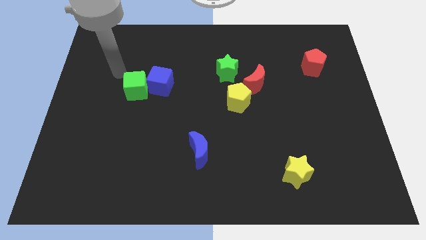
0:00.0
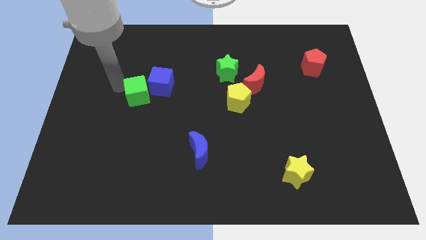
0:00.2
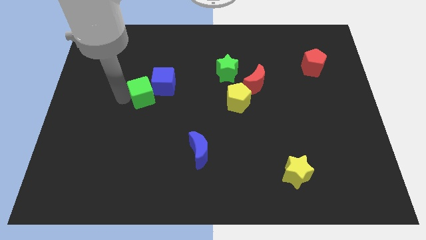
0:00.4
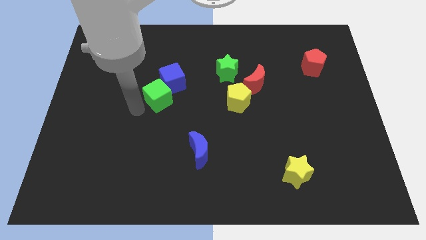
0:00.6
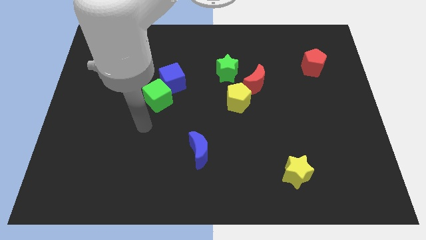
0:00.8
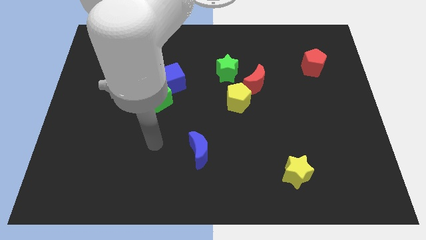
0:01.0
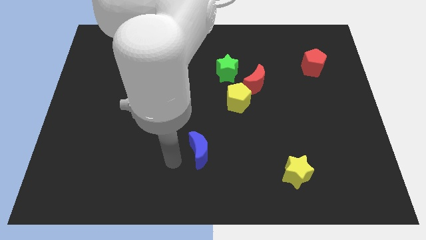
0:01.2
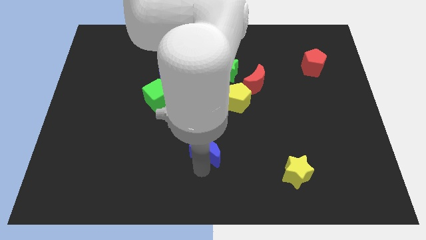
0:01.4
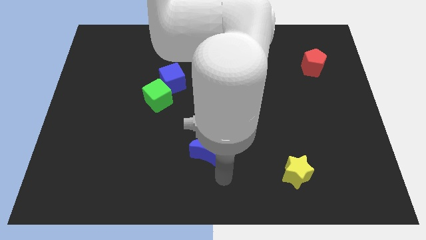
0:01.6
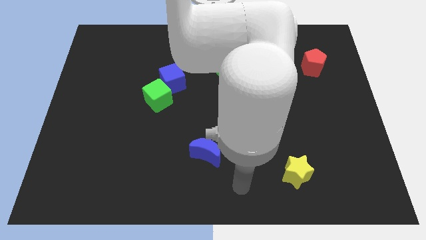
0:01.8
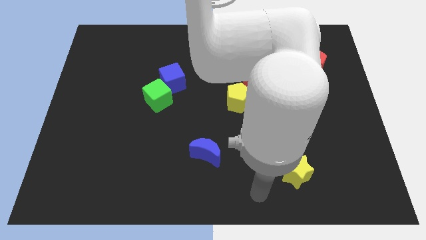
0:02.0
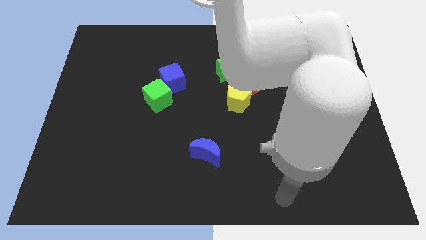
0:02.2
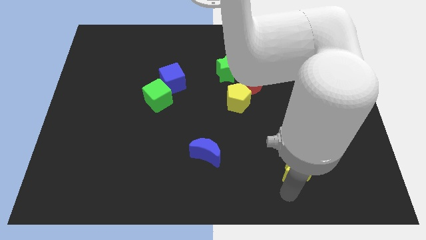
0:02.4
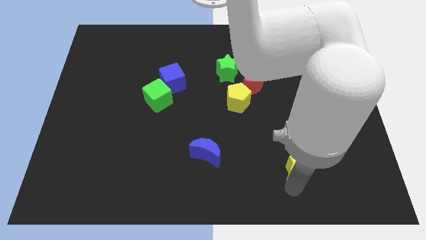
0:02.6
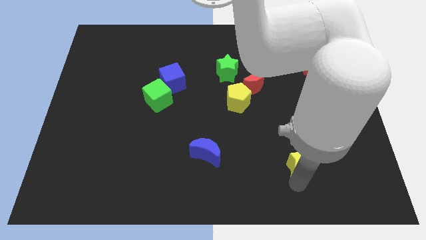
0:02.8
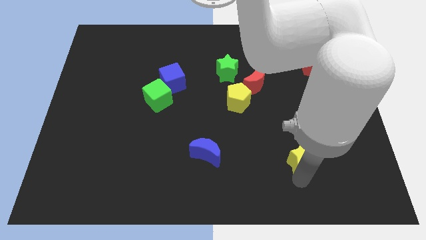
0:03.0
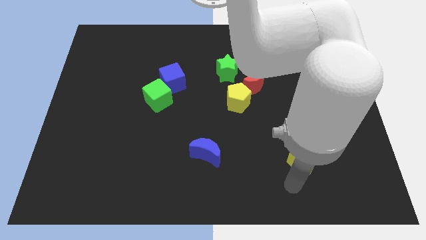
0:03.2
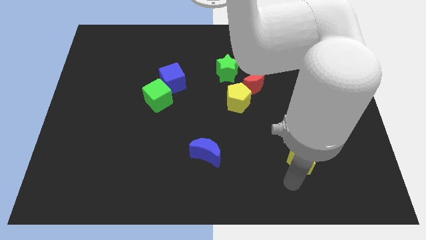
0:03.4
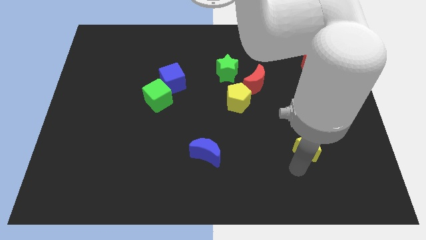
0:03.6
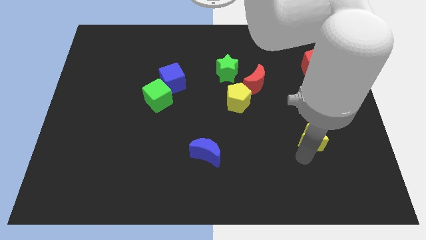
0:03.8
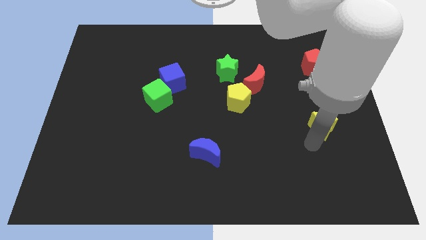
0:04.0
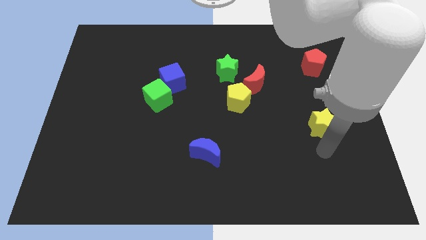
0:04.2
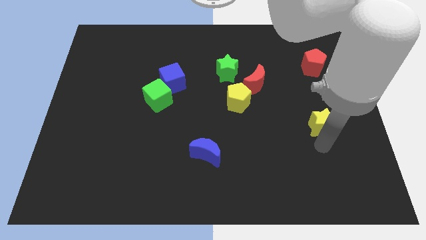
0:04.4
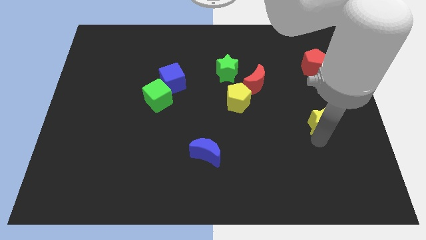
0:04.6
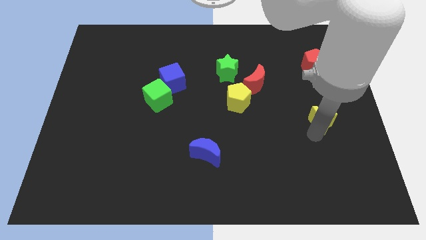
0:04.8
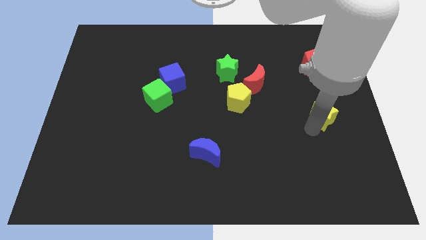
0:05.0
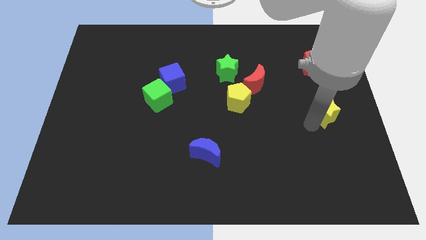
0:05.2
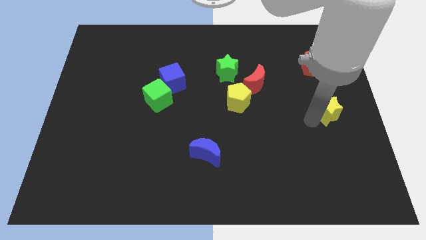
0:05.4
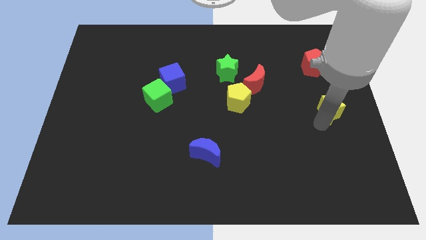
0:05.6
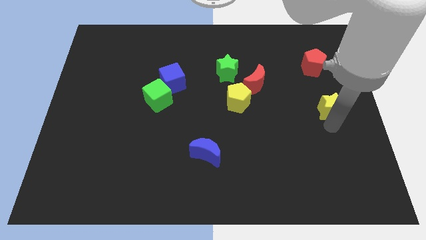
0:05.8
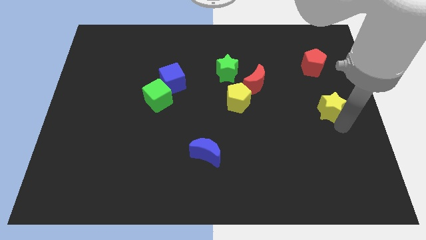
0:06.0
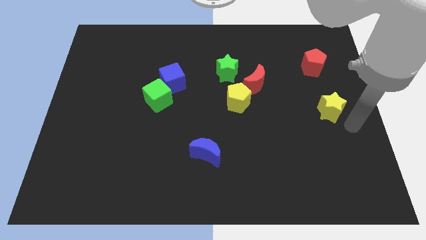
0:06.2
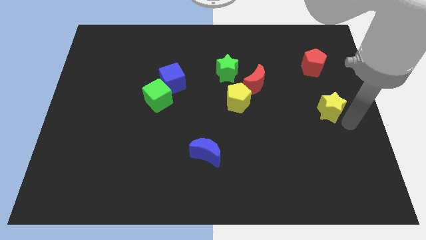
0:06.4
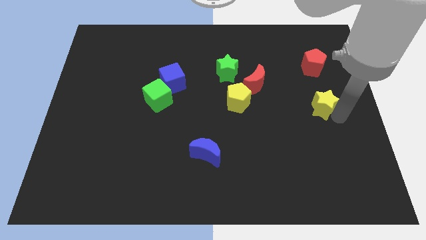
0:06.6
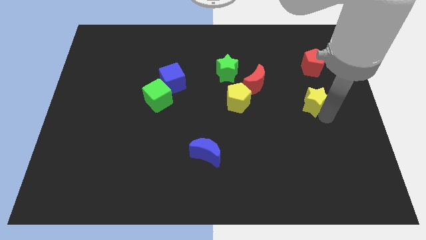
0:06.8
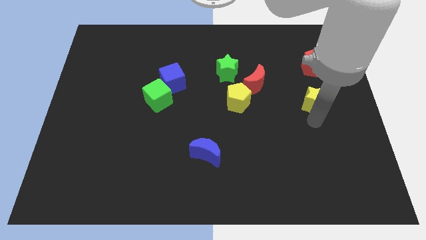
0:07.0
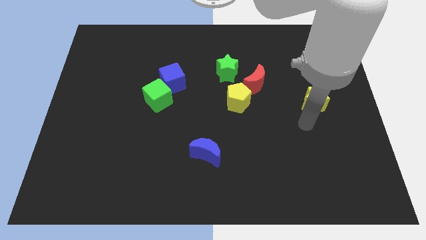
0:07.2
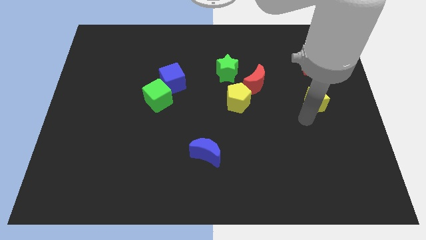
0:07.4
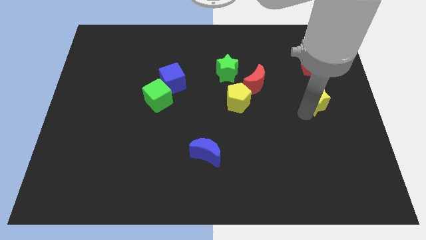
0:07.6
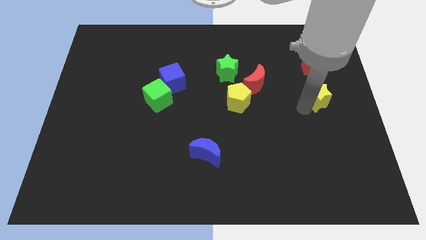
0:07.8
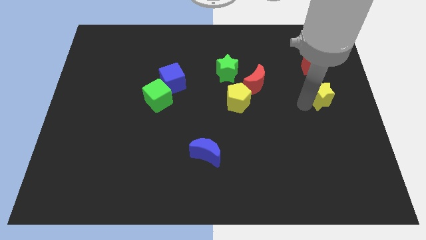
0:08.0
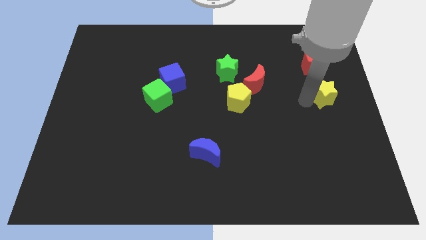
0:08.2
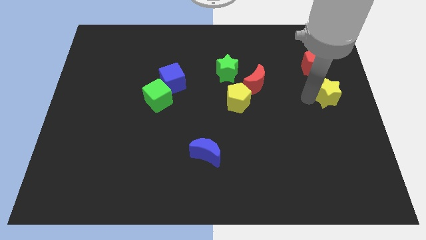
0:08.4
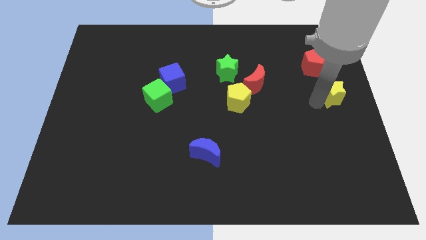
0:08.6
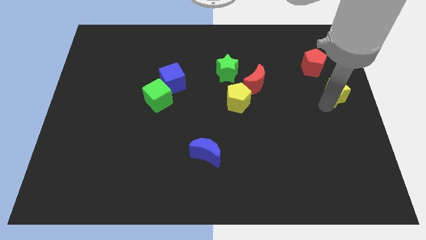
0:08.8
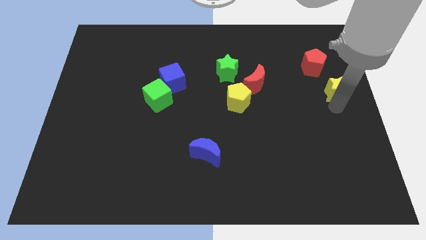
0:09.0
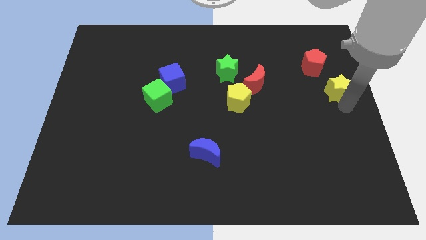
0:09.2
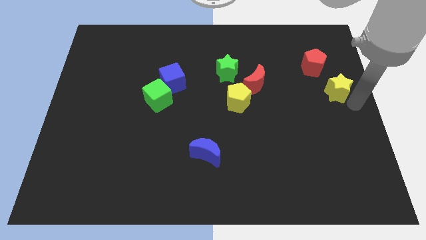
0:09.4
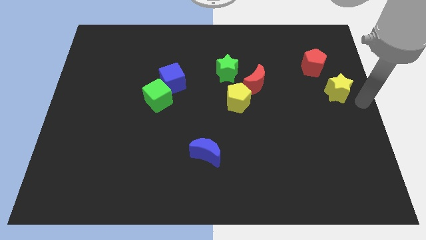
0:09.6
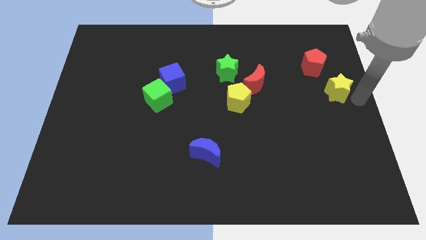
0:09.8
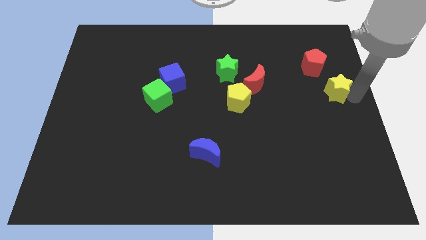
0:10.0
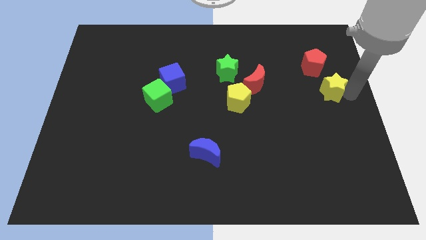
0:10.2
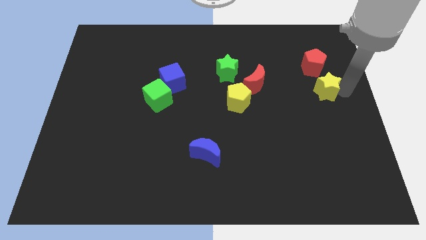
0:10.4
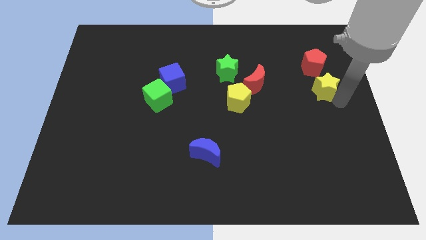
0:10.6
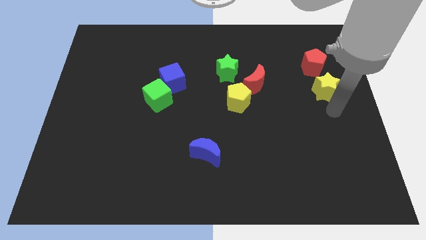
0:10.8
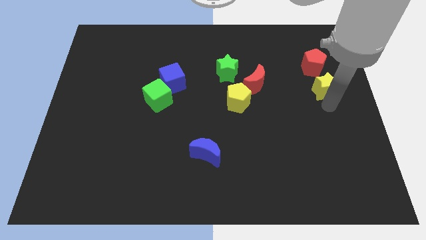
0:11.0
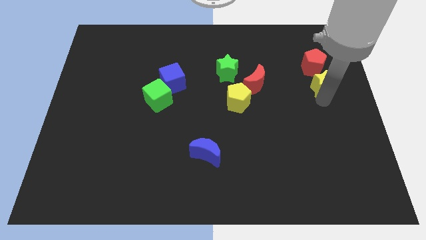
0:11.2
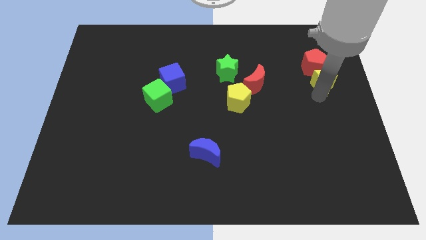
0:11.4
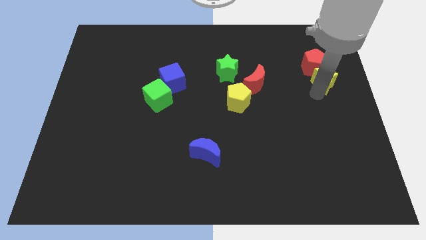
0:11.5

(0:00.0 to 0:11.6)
put the yellow star next to the red pentagon

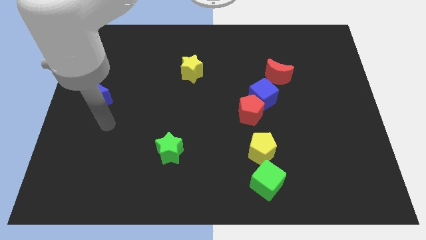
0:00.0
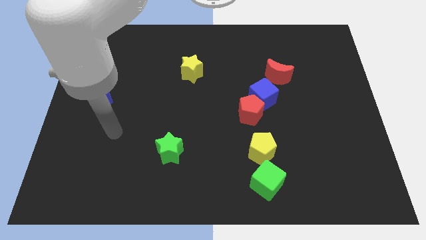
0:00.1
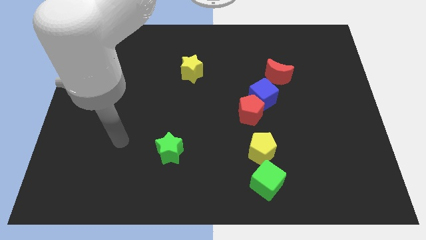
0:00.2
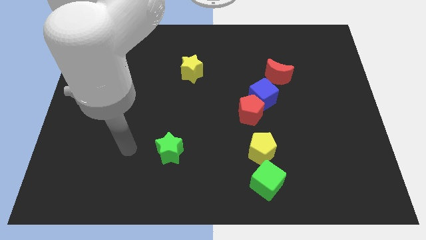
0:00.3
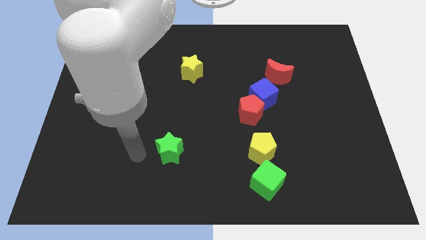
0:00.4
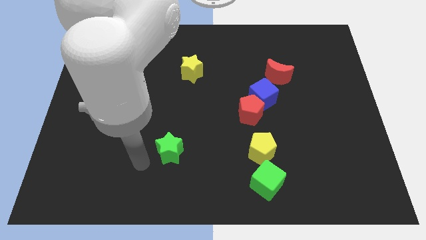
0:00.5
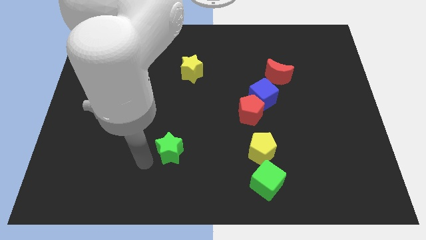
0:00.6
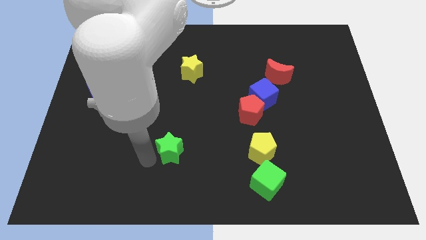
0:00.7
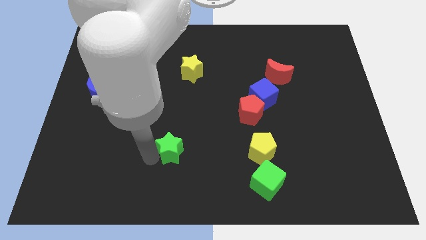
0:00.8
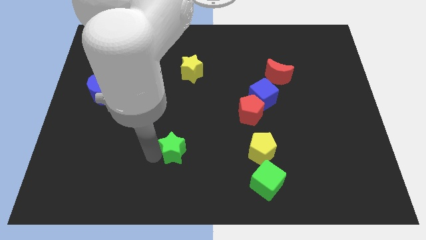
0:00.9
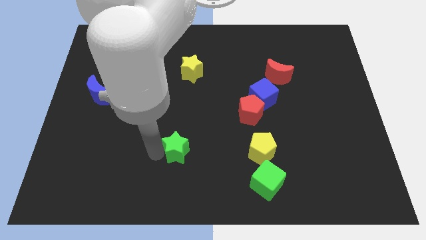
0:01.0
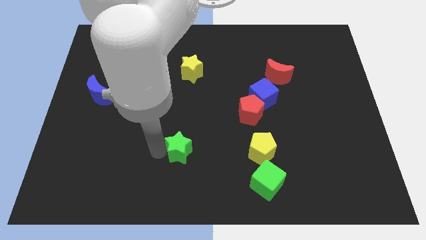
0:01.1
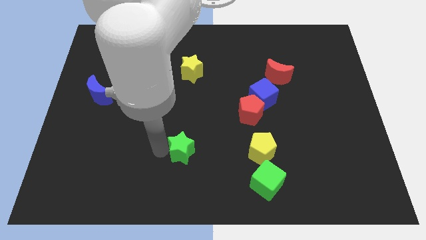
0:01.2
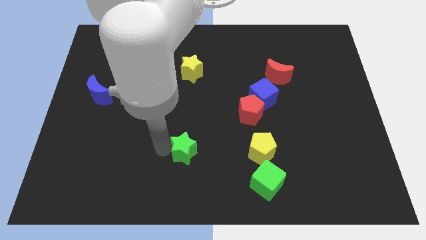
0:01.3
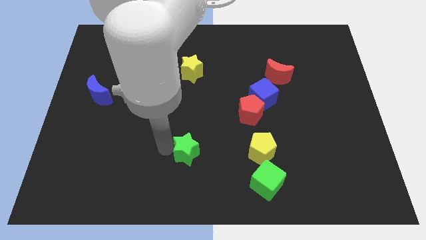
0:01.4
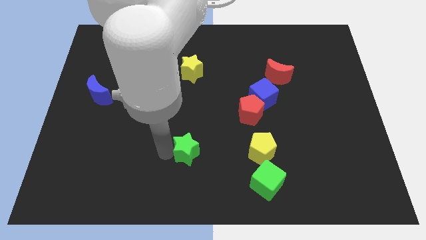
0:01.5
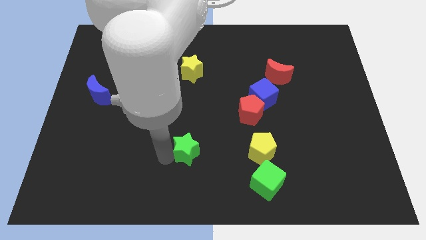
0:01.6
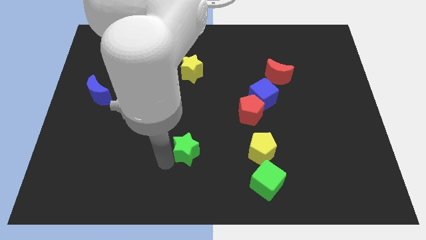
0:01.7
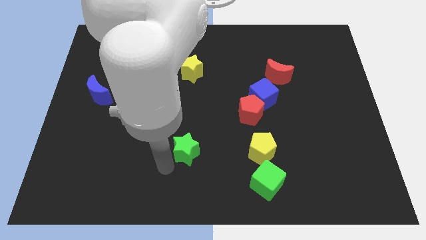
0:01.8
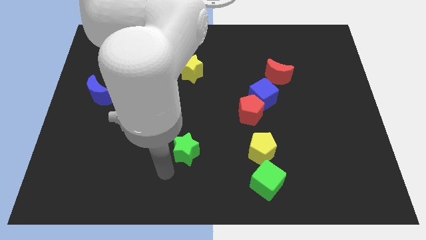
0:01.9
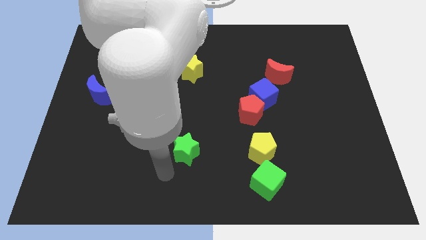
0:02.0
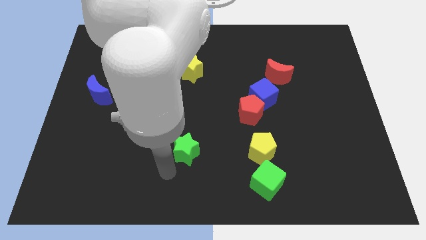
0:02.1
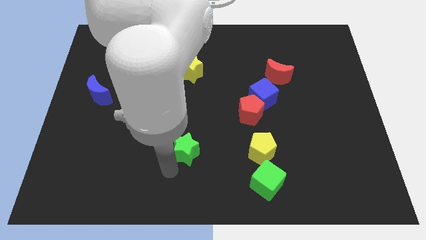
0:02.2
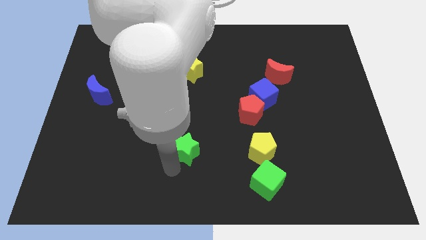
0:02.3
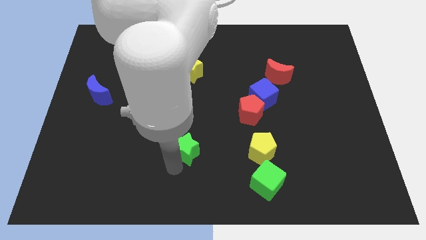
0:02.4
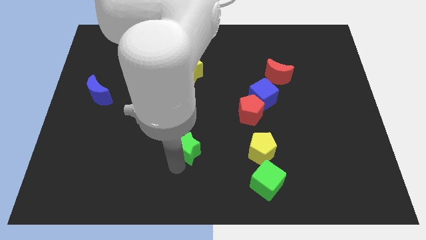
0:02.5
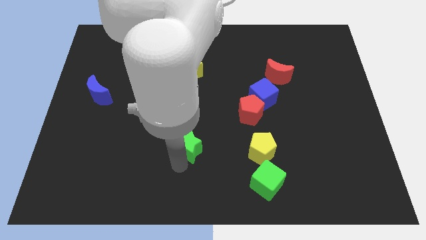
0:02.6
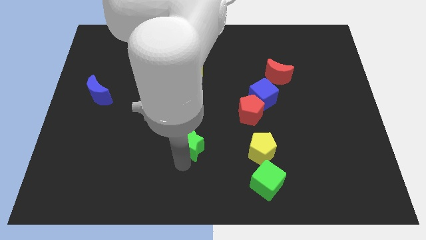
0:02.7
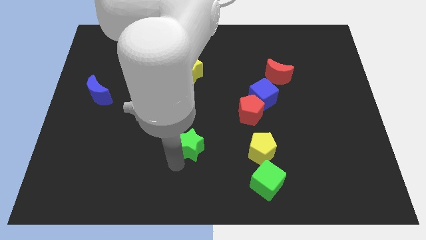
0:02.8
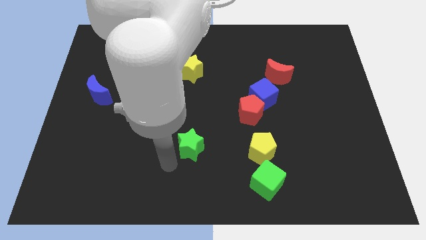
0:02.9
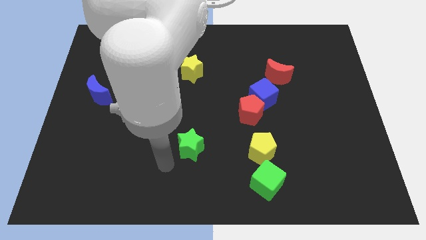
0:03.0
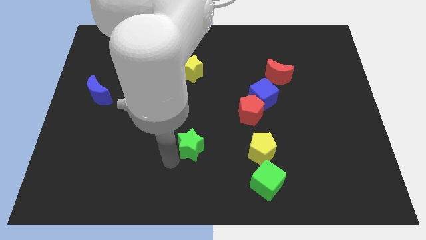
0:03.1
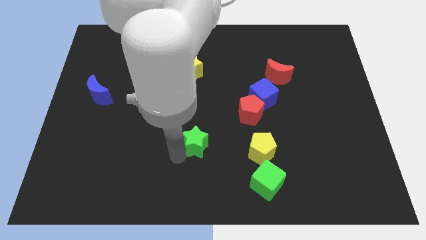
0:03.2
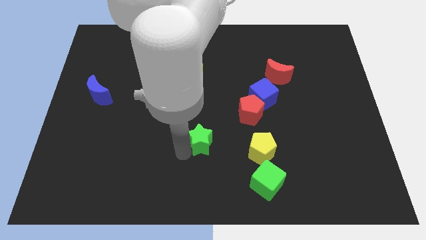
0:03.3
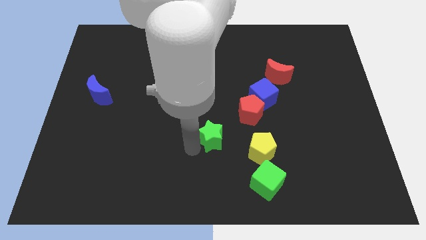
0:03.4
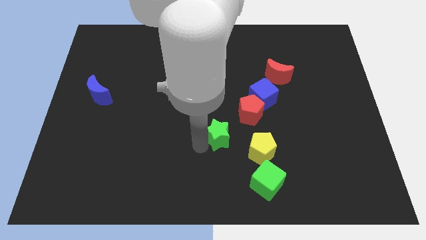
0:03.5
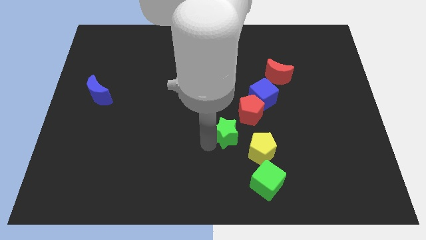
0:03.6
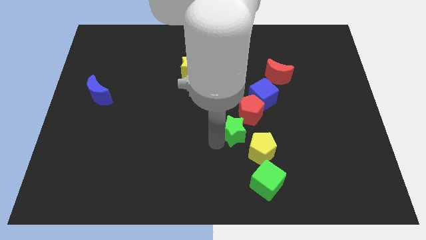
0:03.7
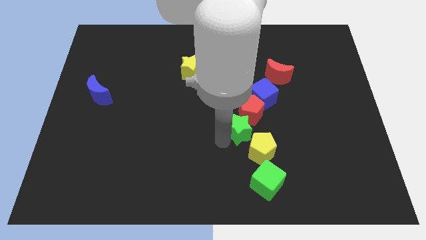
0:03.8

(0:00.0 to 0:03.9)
slide the green star close to the red pentagon
